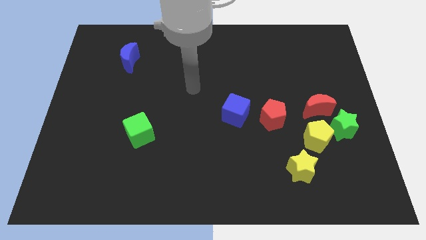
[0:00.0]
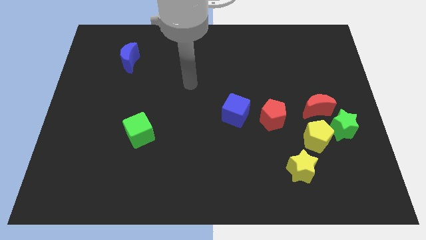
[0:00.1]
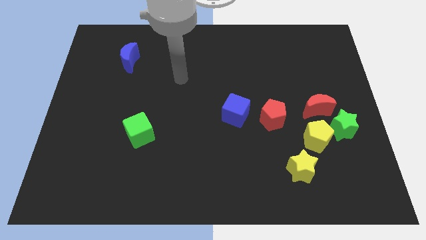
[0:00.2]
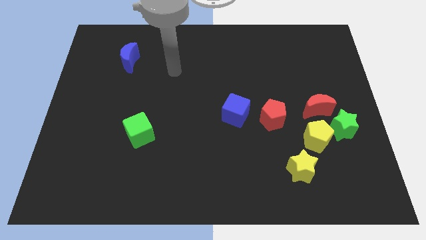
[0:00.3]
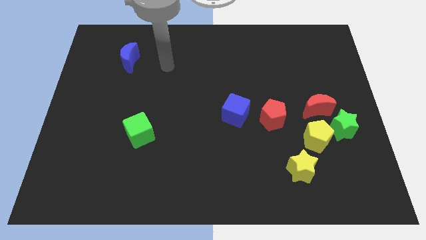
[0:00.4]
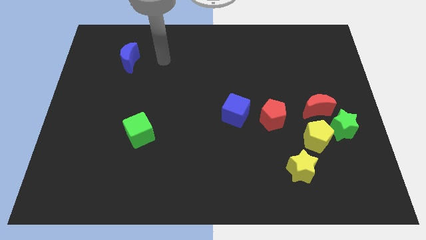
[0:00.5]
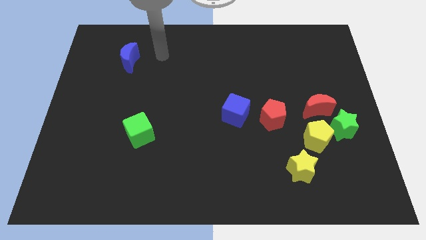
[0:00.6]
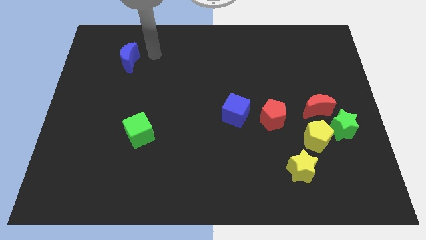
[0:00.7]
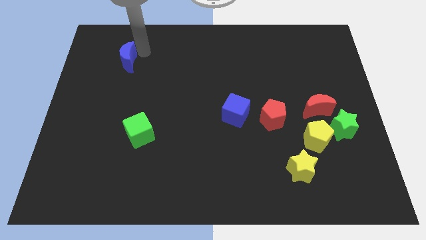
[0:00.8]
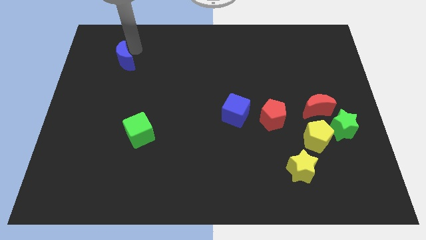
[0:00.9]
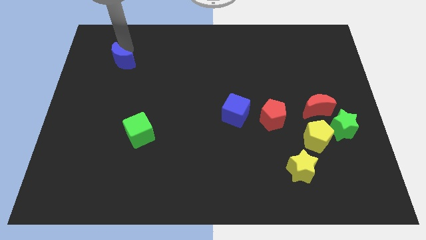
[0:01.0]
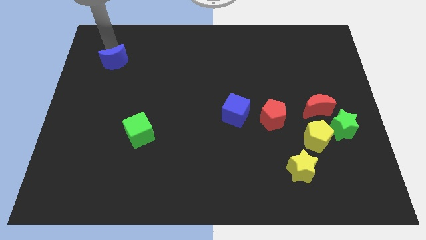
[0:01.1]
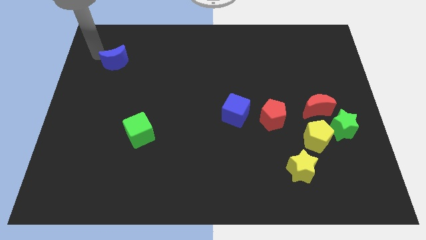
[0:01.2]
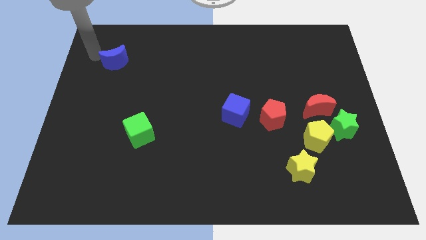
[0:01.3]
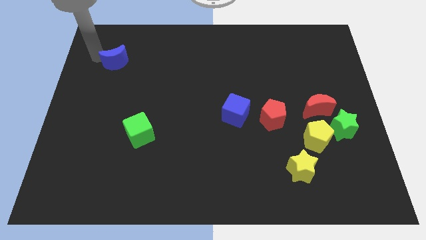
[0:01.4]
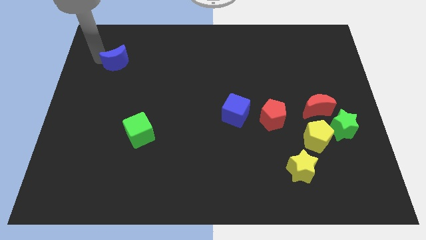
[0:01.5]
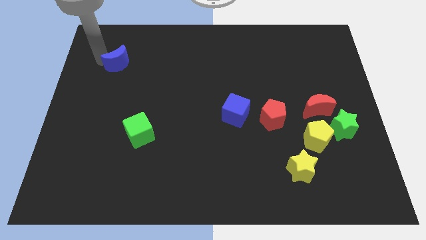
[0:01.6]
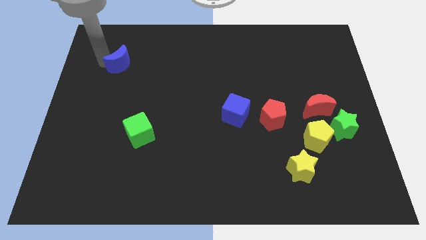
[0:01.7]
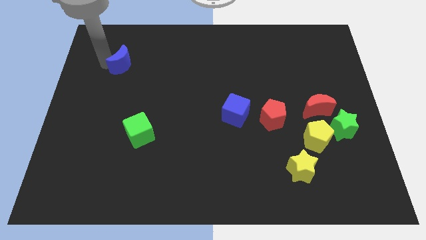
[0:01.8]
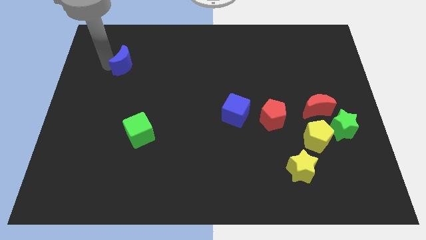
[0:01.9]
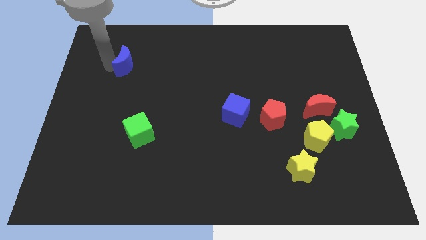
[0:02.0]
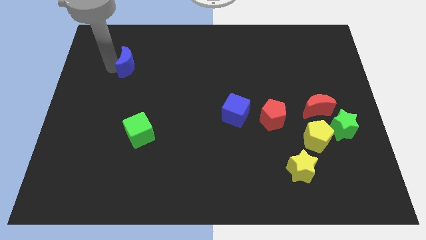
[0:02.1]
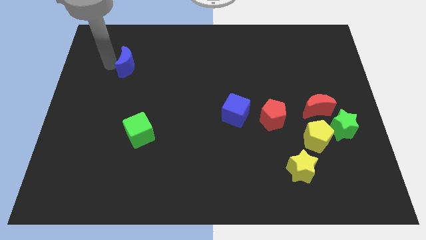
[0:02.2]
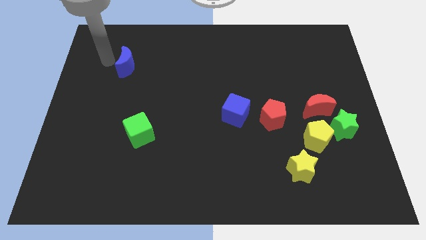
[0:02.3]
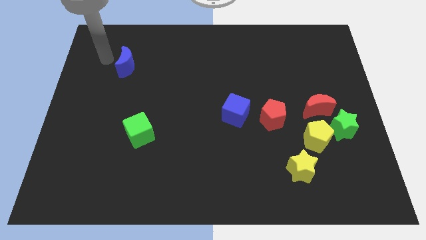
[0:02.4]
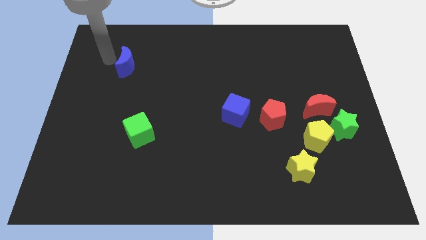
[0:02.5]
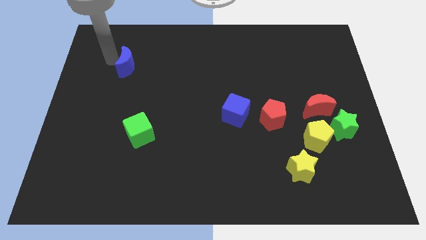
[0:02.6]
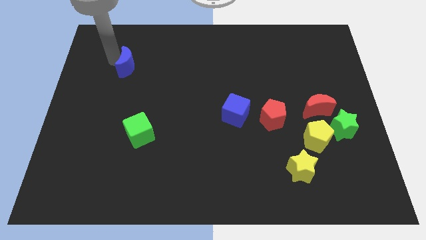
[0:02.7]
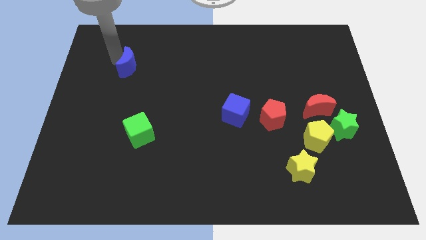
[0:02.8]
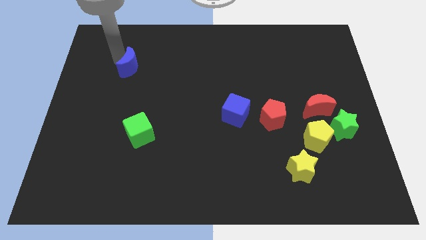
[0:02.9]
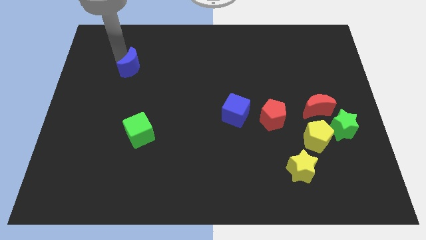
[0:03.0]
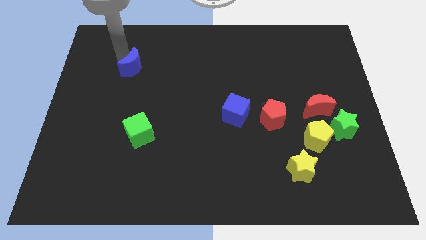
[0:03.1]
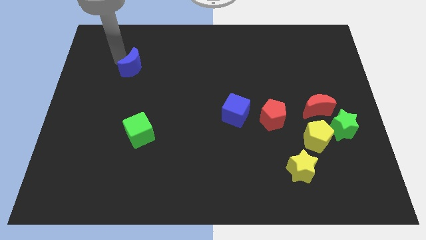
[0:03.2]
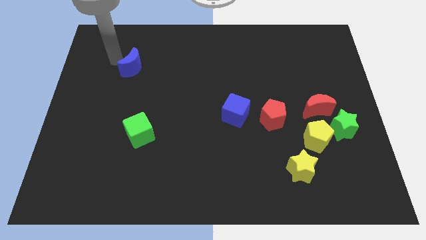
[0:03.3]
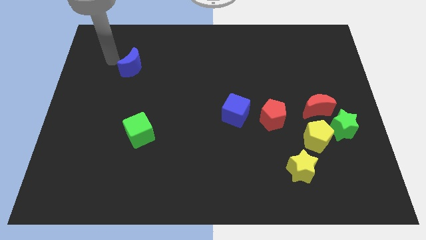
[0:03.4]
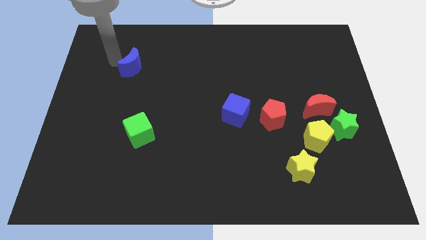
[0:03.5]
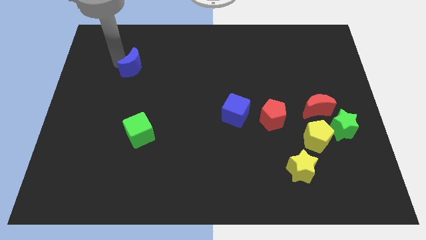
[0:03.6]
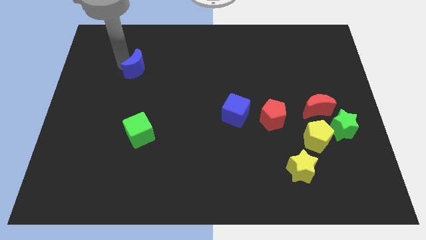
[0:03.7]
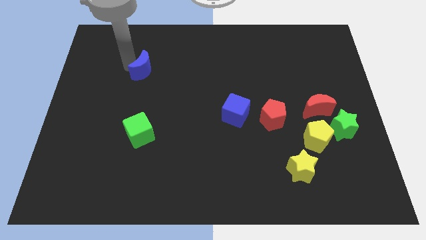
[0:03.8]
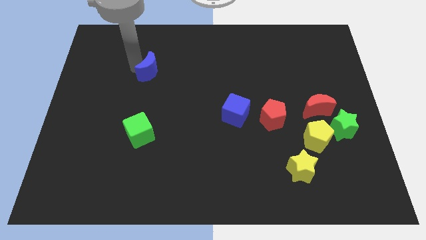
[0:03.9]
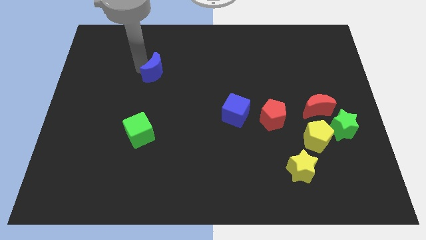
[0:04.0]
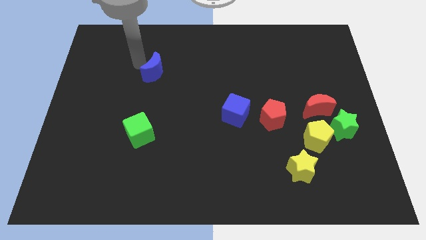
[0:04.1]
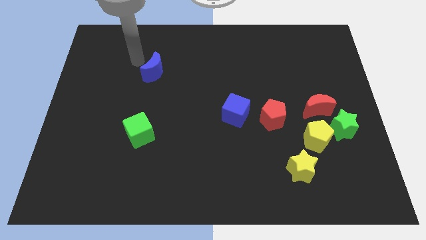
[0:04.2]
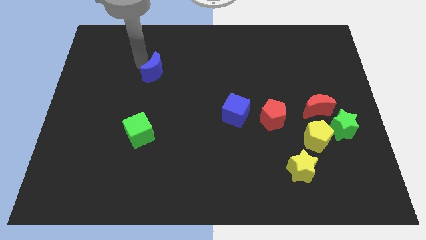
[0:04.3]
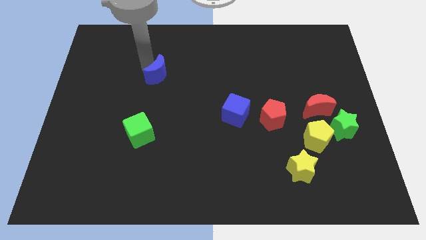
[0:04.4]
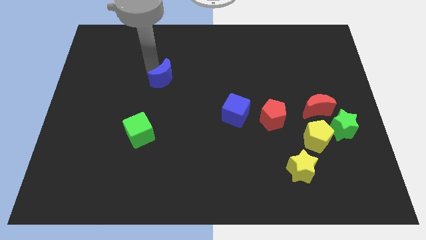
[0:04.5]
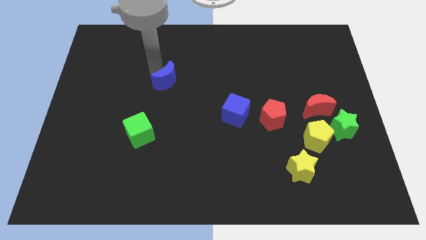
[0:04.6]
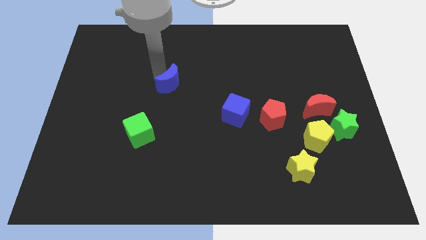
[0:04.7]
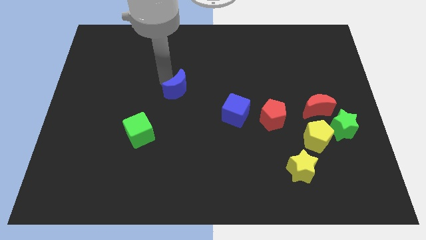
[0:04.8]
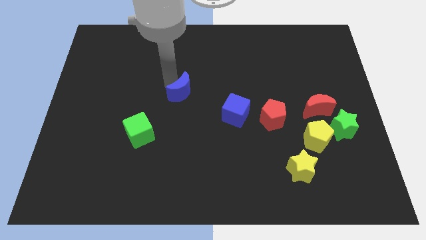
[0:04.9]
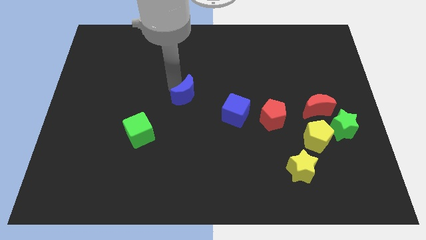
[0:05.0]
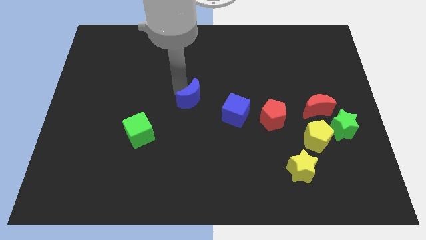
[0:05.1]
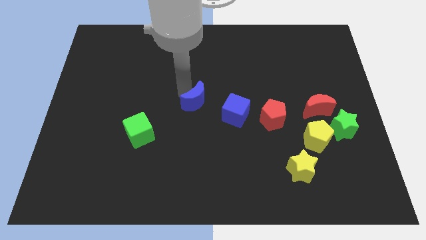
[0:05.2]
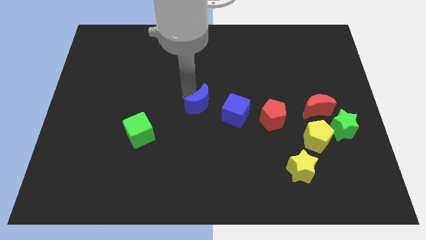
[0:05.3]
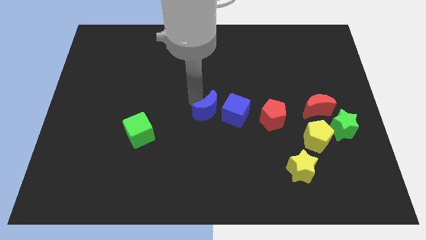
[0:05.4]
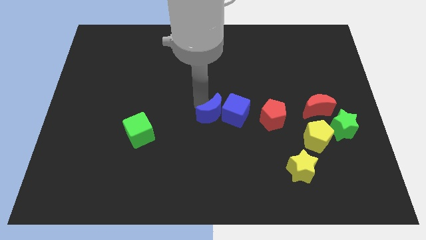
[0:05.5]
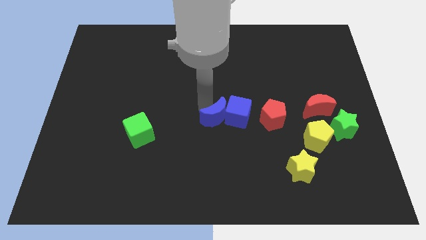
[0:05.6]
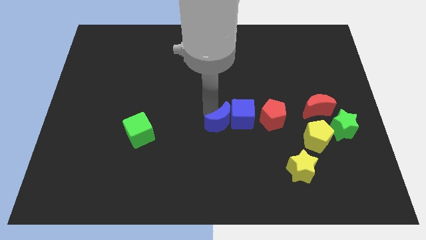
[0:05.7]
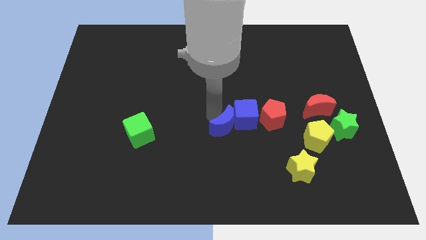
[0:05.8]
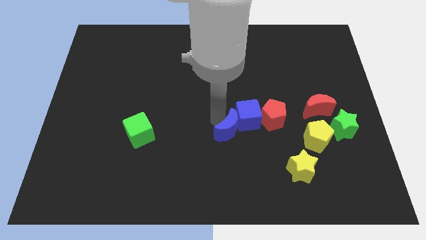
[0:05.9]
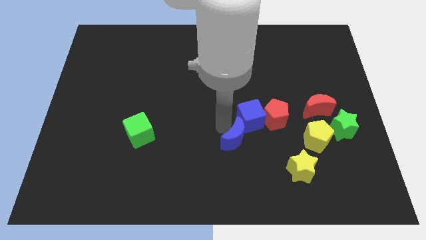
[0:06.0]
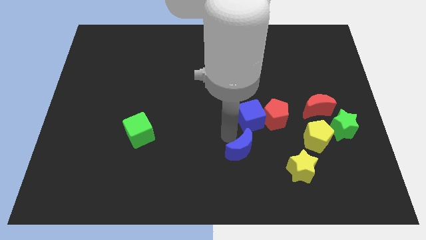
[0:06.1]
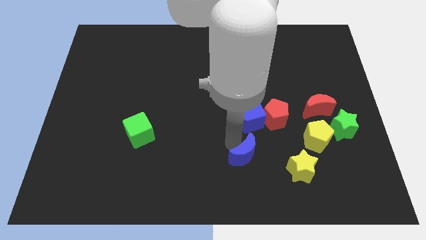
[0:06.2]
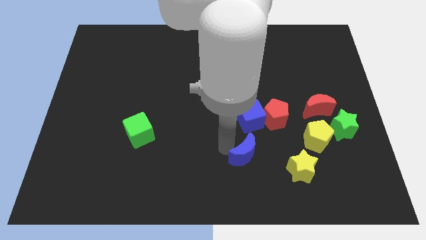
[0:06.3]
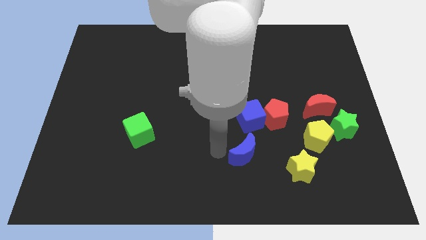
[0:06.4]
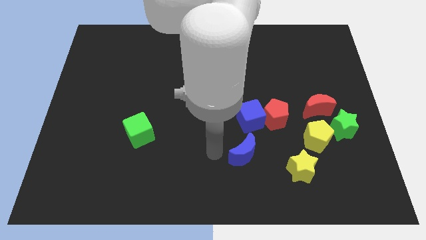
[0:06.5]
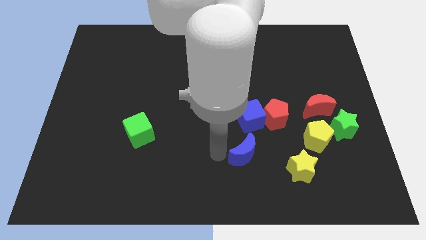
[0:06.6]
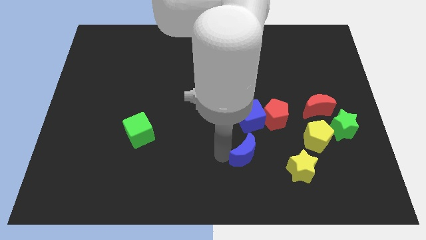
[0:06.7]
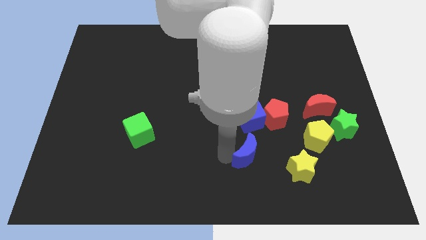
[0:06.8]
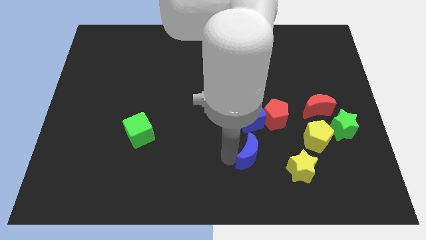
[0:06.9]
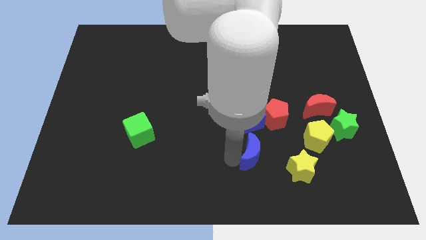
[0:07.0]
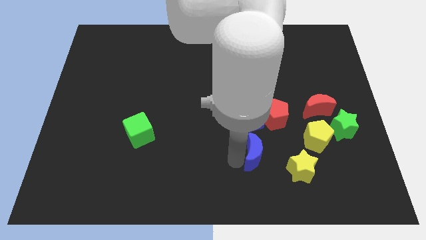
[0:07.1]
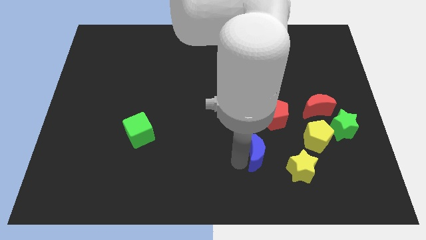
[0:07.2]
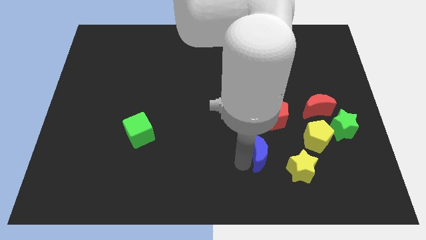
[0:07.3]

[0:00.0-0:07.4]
push the blue moon to the bottom of the red pentagon
